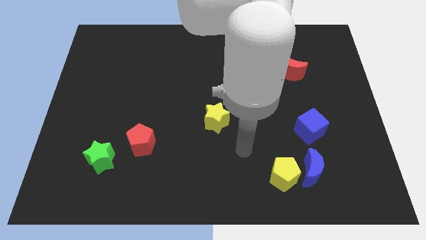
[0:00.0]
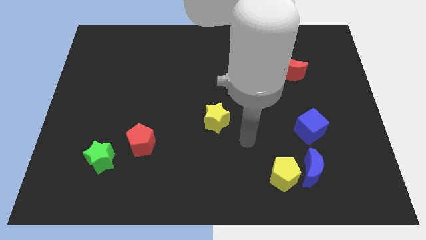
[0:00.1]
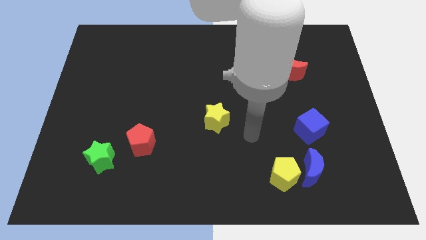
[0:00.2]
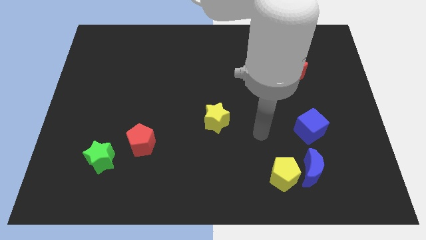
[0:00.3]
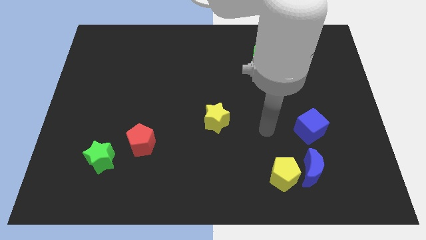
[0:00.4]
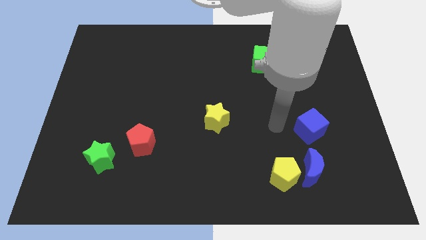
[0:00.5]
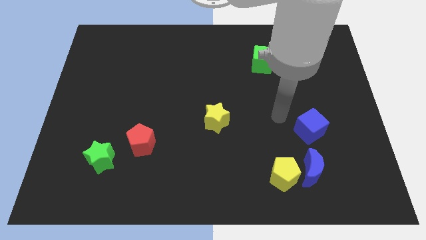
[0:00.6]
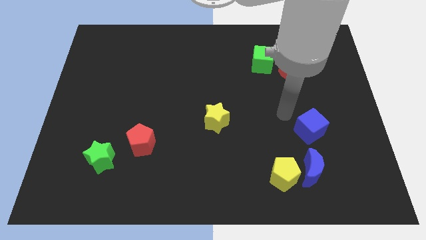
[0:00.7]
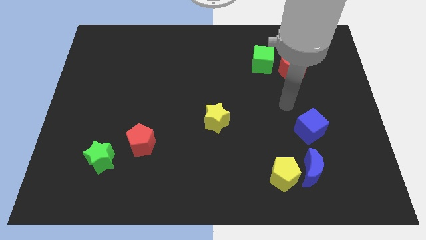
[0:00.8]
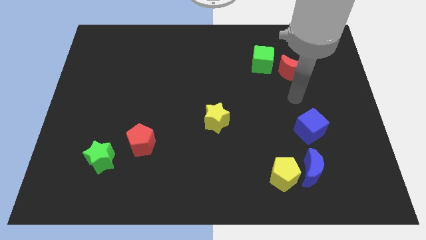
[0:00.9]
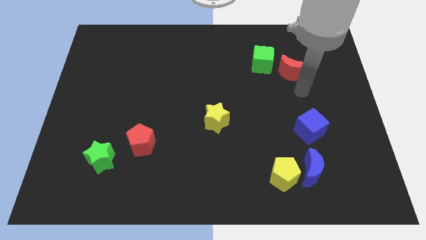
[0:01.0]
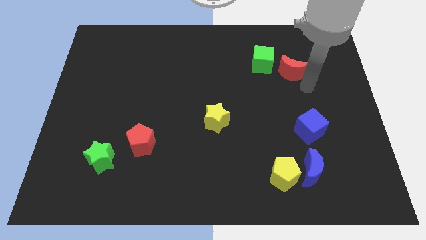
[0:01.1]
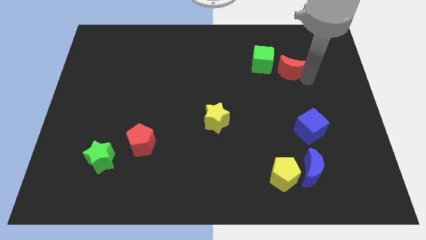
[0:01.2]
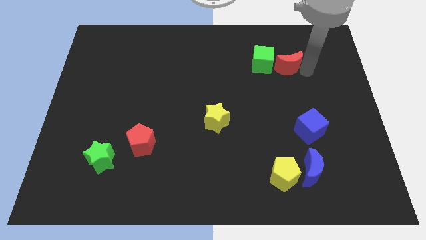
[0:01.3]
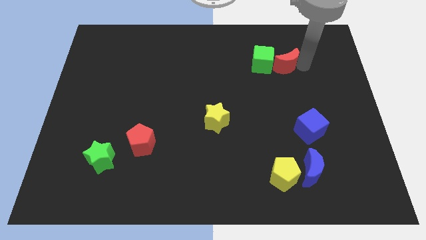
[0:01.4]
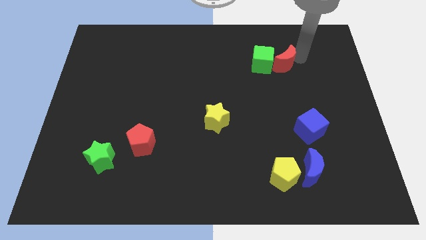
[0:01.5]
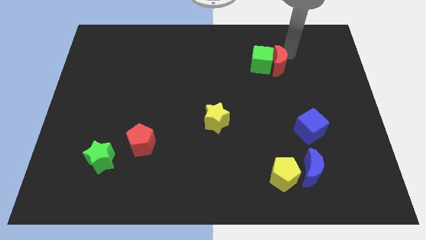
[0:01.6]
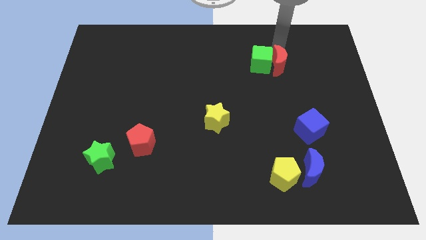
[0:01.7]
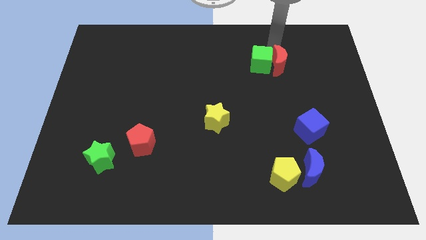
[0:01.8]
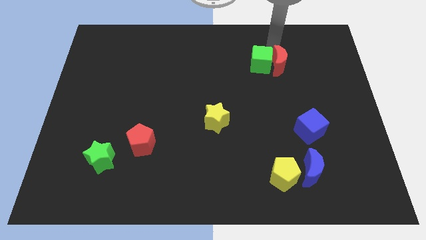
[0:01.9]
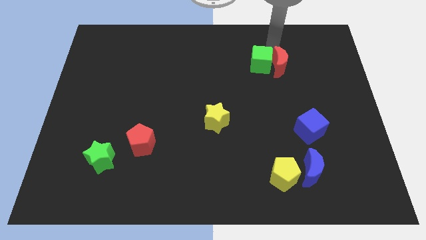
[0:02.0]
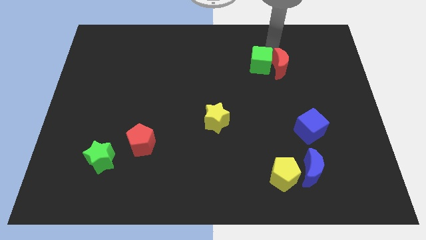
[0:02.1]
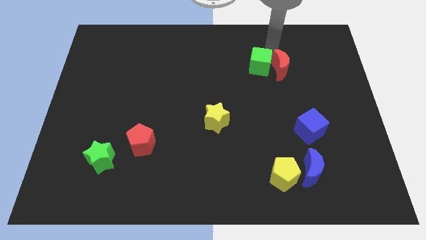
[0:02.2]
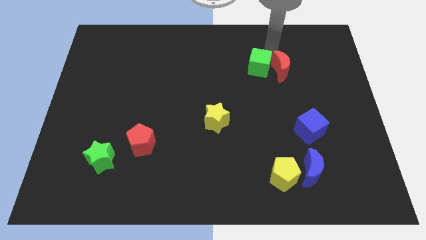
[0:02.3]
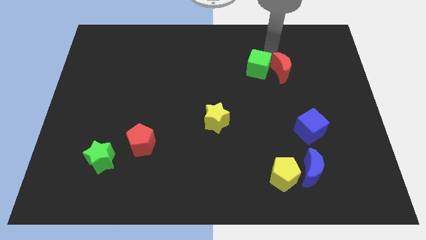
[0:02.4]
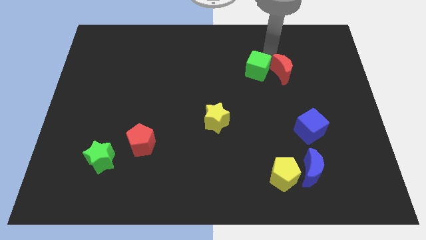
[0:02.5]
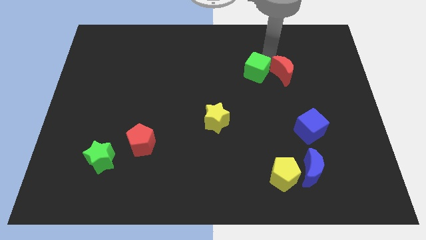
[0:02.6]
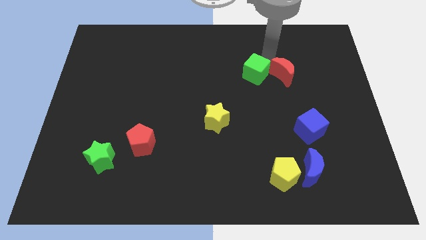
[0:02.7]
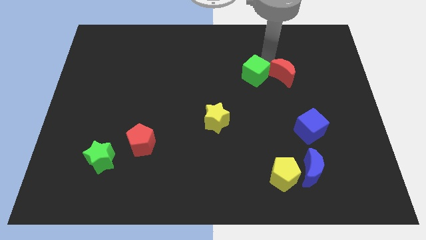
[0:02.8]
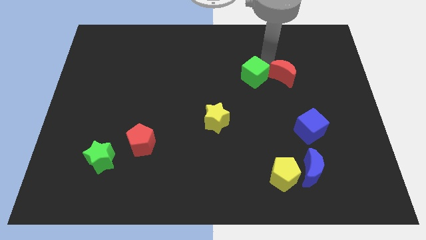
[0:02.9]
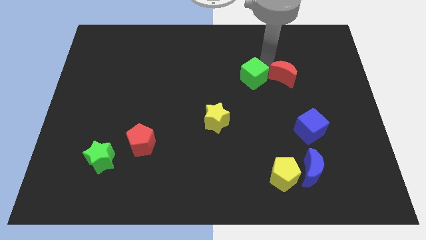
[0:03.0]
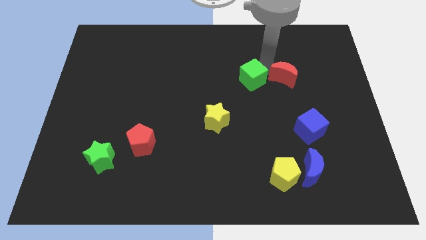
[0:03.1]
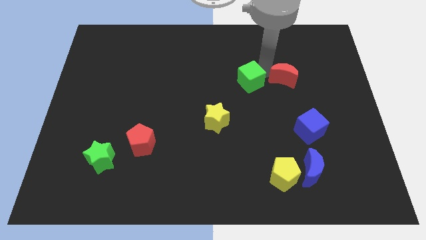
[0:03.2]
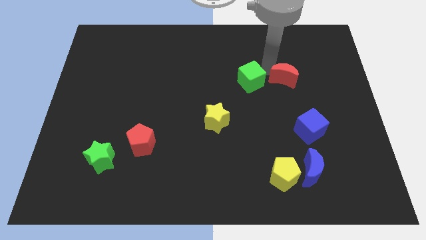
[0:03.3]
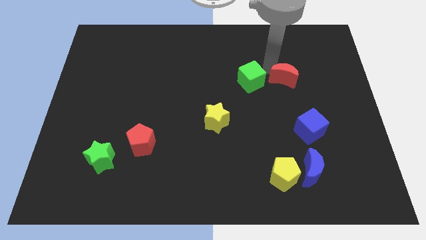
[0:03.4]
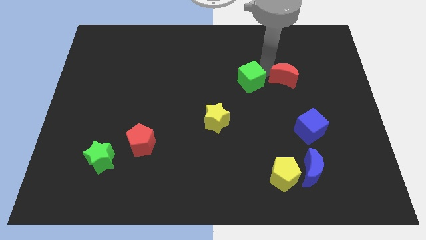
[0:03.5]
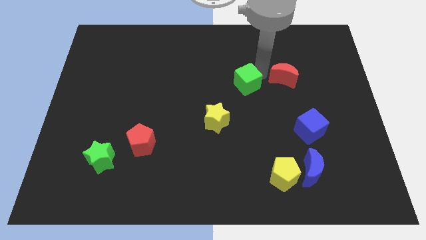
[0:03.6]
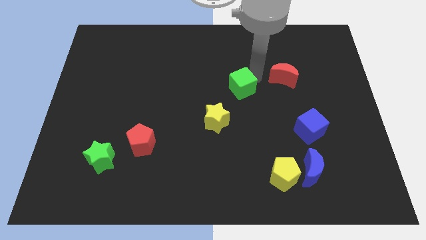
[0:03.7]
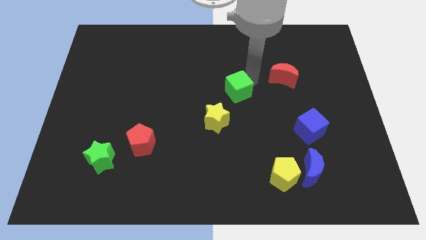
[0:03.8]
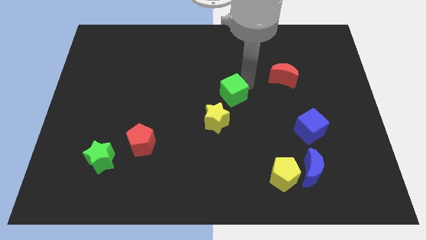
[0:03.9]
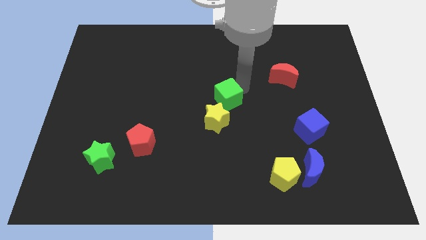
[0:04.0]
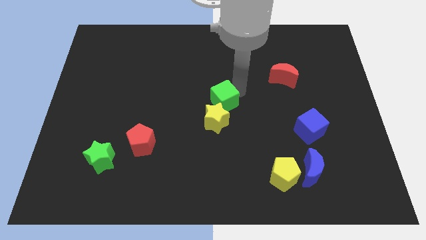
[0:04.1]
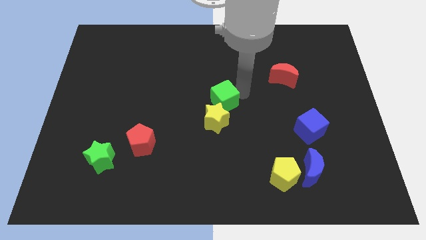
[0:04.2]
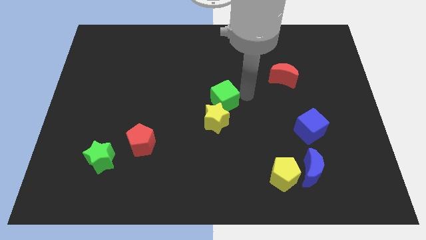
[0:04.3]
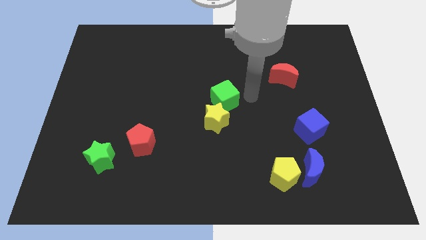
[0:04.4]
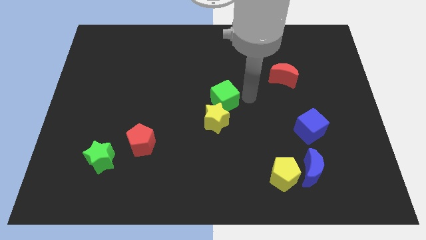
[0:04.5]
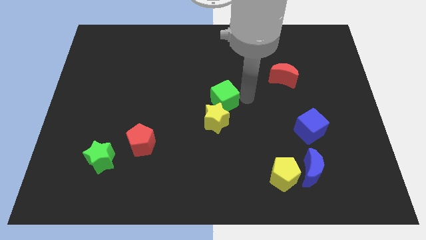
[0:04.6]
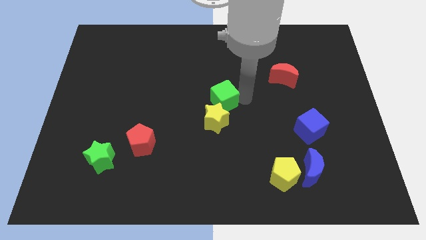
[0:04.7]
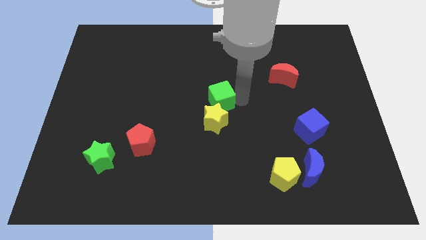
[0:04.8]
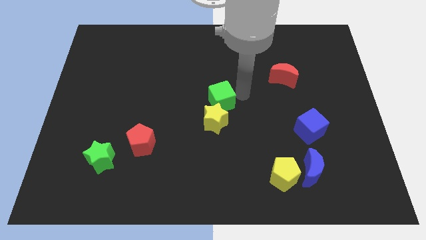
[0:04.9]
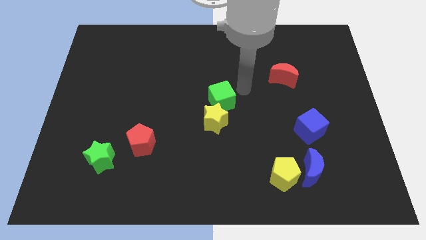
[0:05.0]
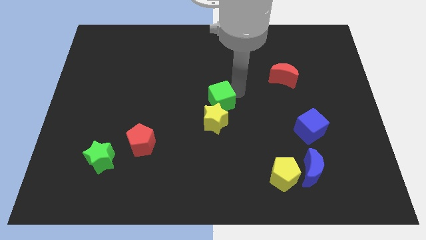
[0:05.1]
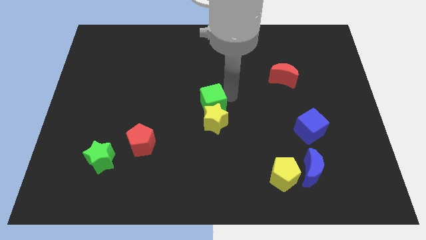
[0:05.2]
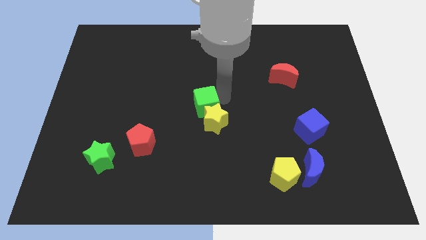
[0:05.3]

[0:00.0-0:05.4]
slide the green cube downwards and to the left

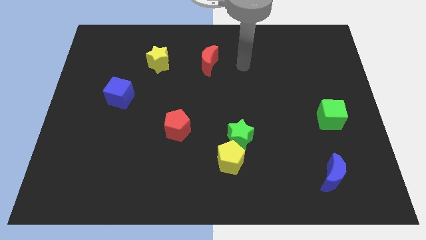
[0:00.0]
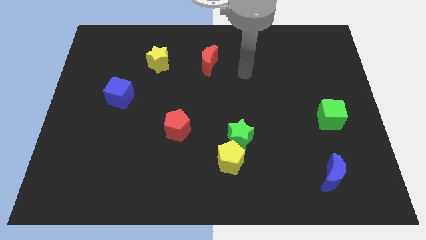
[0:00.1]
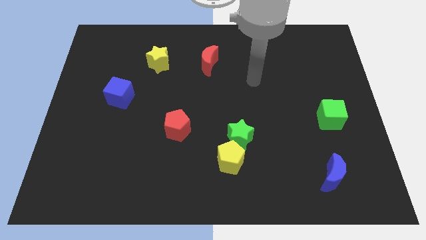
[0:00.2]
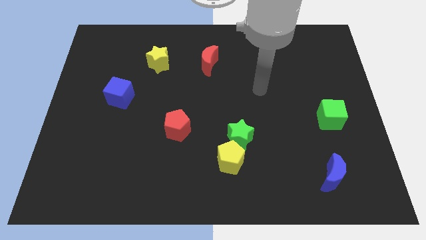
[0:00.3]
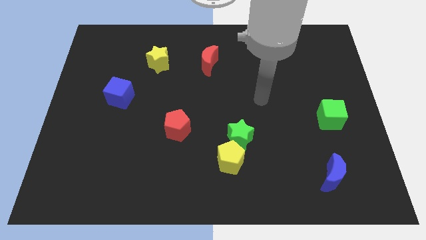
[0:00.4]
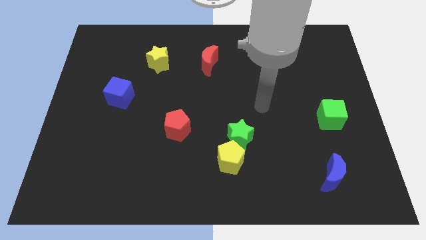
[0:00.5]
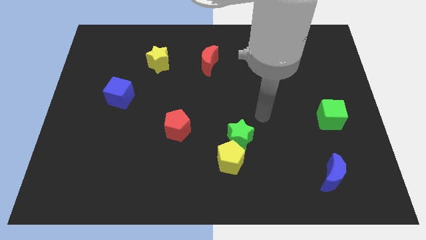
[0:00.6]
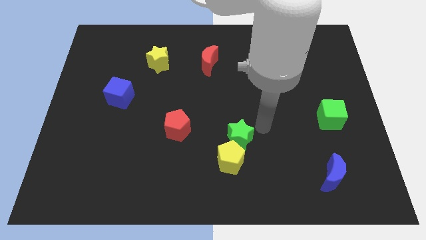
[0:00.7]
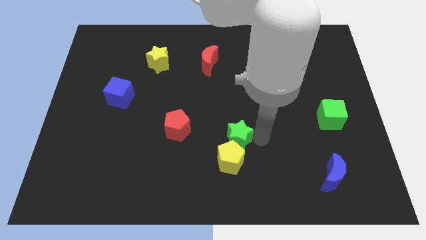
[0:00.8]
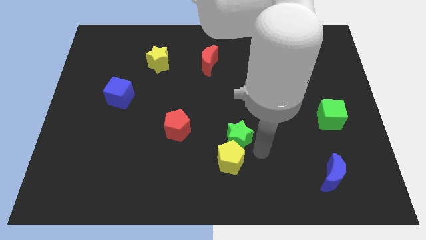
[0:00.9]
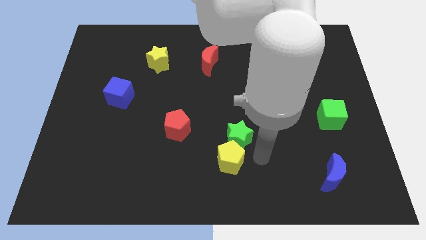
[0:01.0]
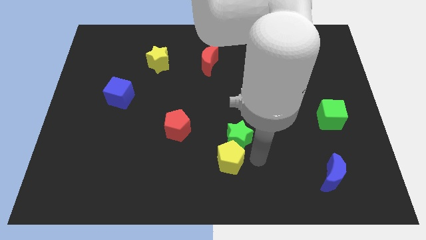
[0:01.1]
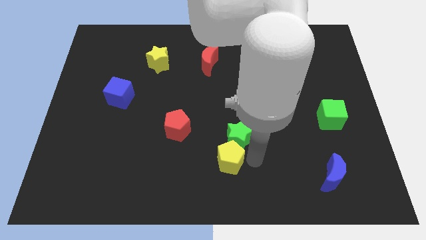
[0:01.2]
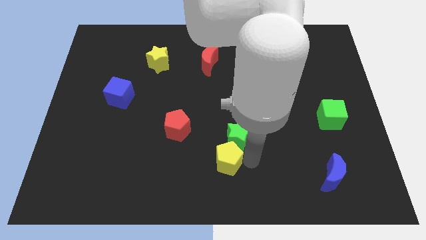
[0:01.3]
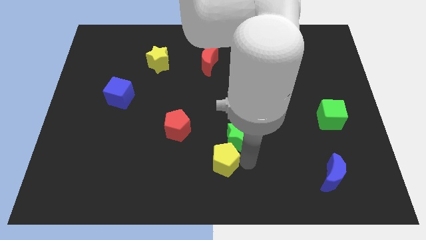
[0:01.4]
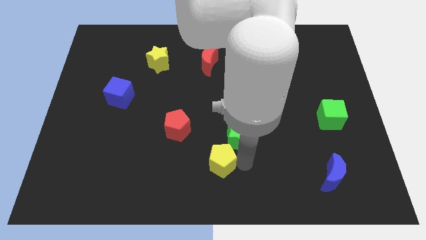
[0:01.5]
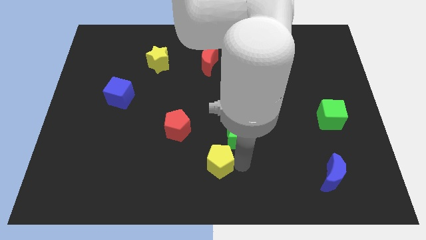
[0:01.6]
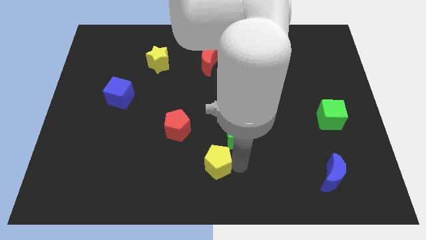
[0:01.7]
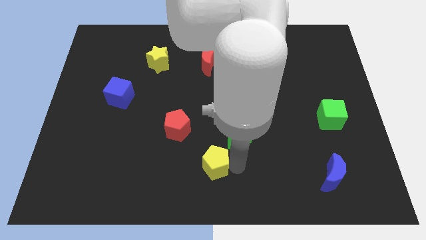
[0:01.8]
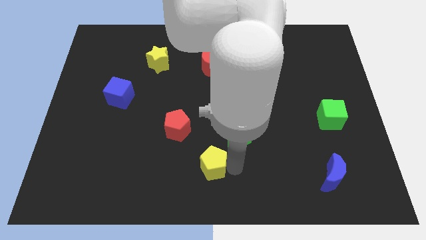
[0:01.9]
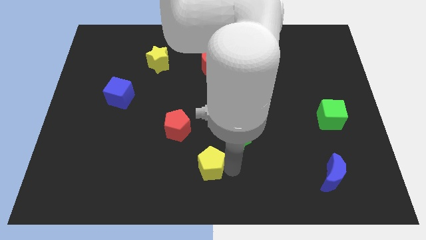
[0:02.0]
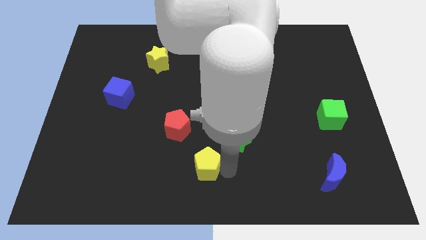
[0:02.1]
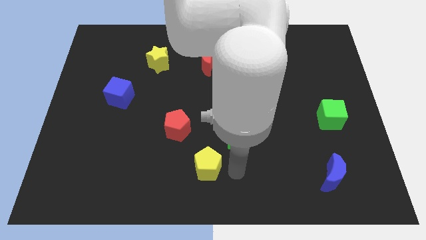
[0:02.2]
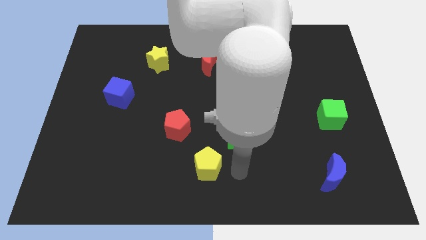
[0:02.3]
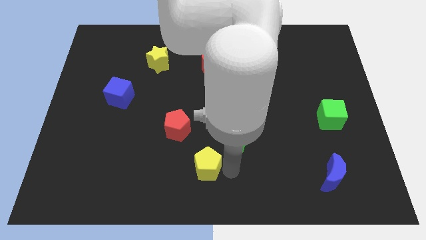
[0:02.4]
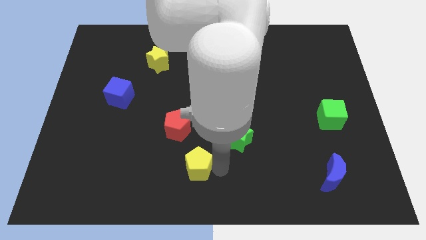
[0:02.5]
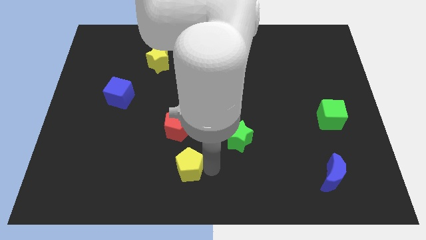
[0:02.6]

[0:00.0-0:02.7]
move the yellow pentagon a little bit left
